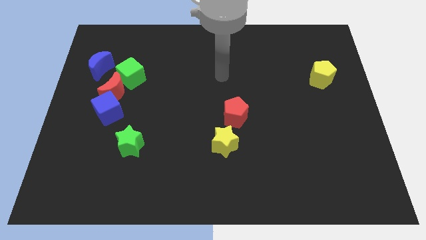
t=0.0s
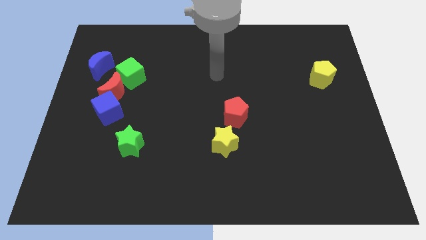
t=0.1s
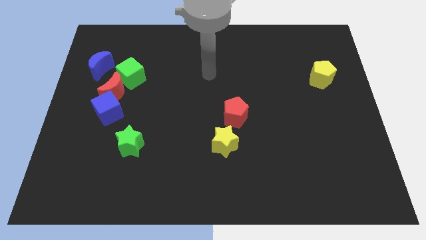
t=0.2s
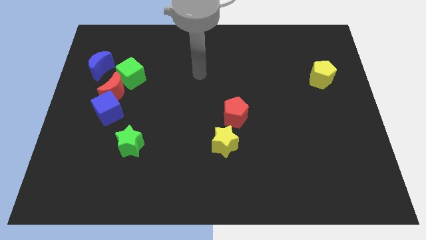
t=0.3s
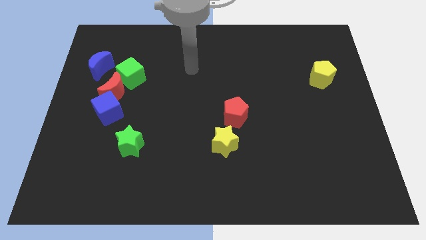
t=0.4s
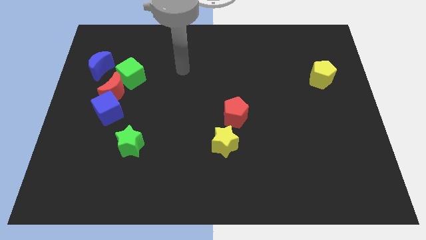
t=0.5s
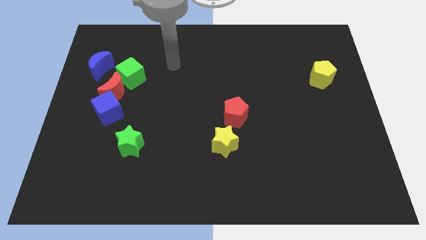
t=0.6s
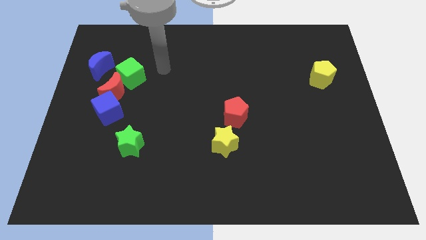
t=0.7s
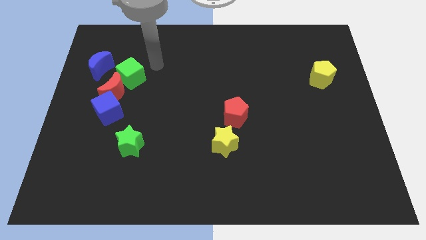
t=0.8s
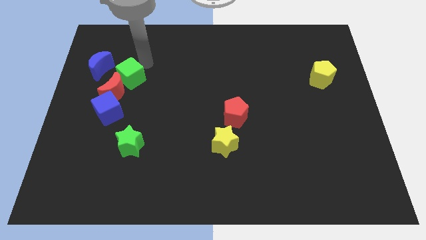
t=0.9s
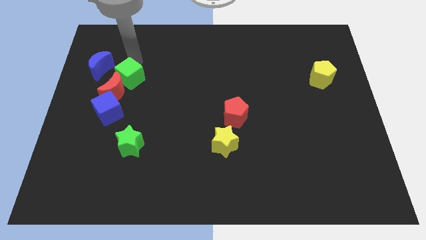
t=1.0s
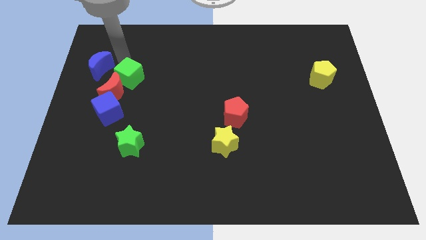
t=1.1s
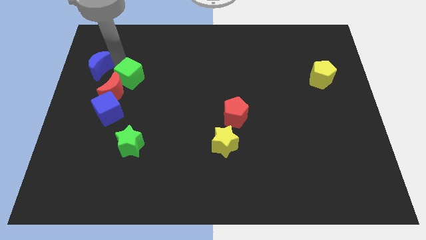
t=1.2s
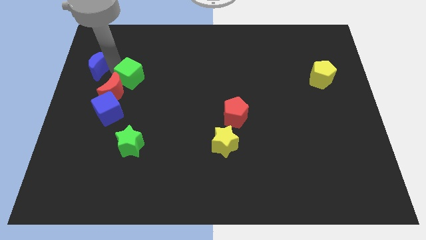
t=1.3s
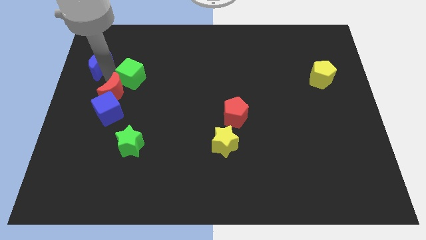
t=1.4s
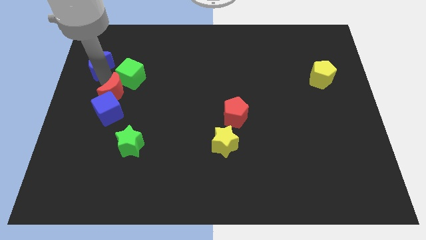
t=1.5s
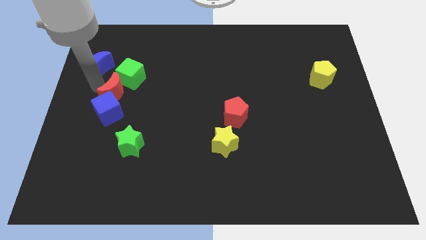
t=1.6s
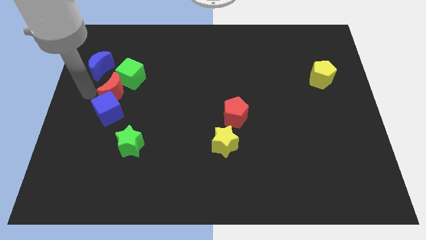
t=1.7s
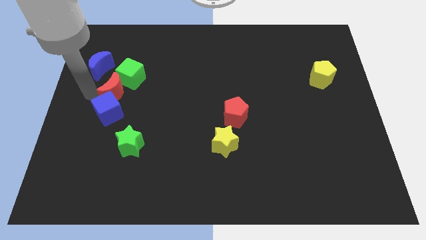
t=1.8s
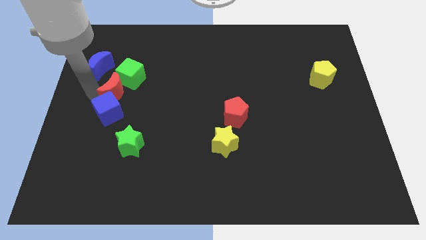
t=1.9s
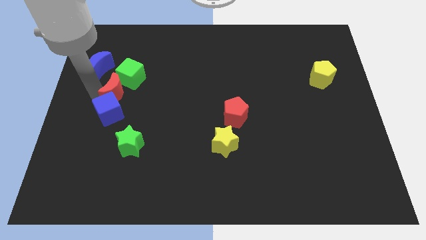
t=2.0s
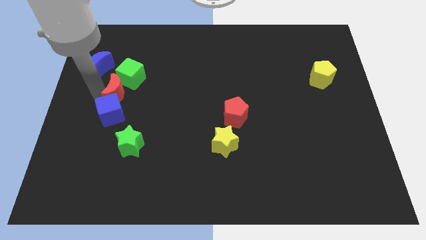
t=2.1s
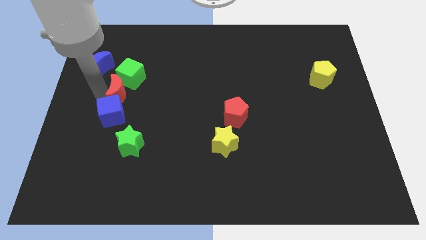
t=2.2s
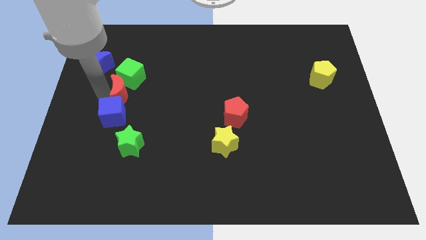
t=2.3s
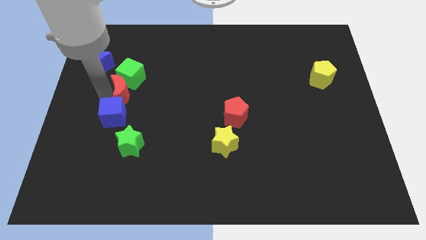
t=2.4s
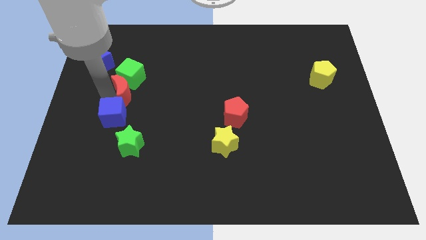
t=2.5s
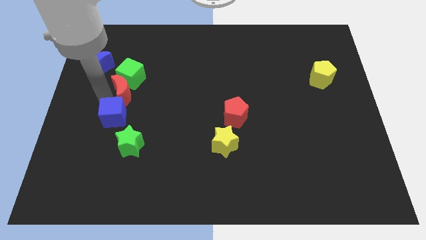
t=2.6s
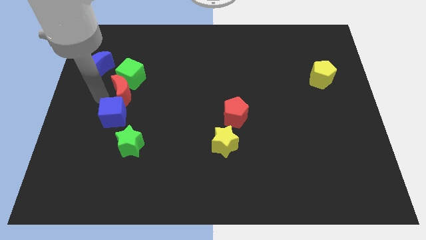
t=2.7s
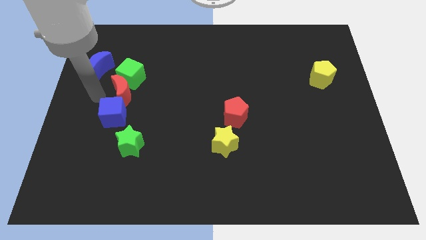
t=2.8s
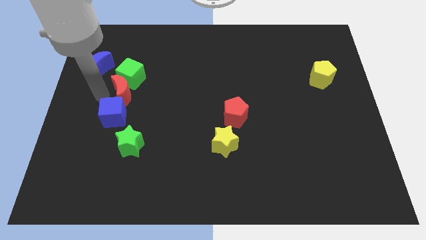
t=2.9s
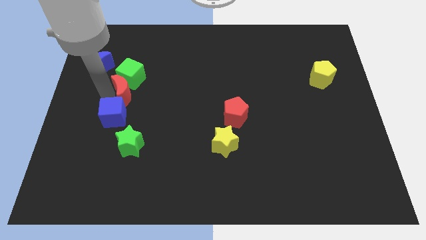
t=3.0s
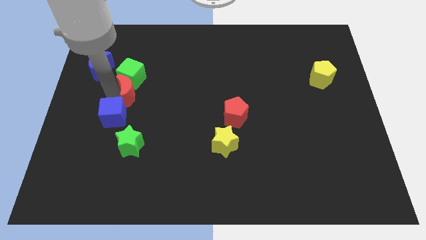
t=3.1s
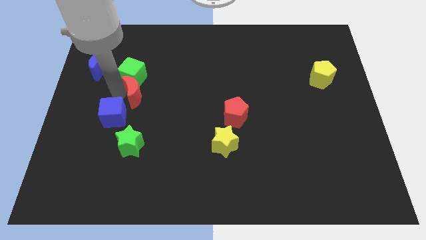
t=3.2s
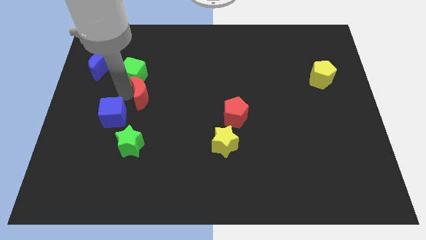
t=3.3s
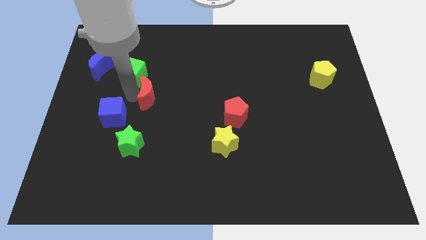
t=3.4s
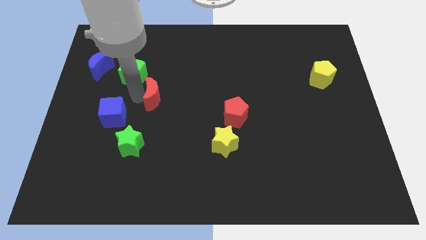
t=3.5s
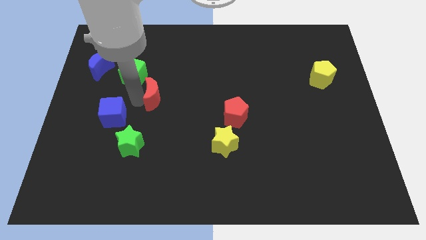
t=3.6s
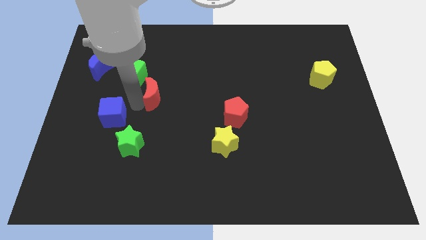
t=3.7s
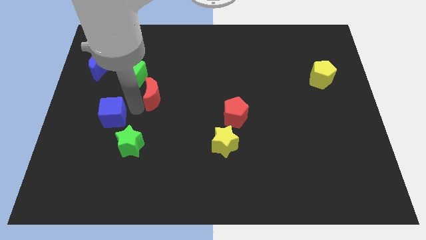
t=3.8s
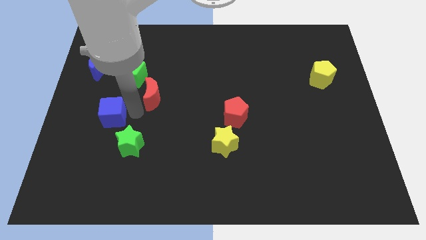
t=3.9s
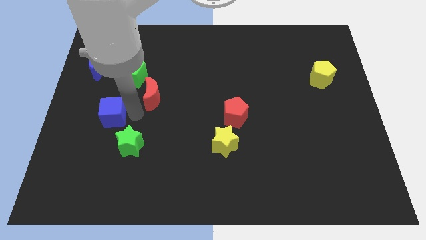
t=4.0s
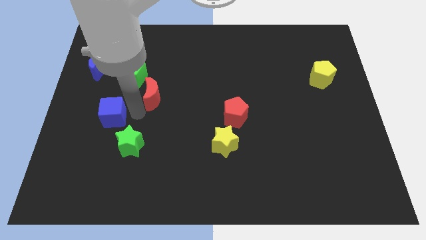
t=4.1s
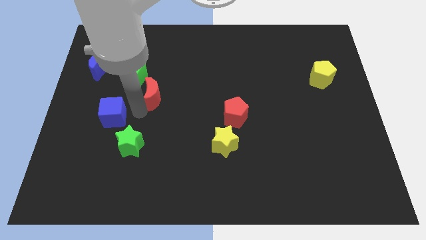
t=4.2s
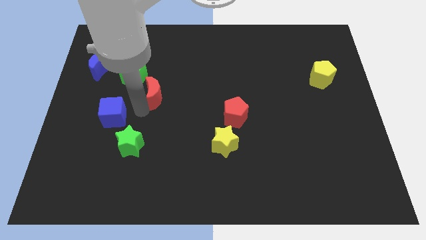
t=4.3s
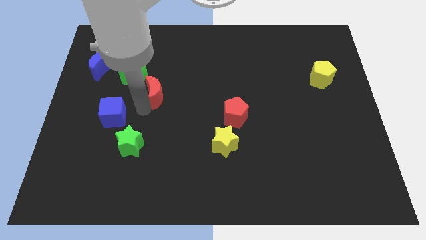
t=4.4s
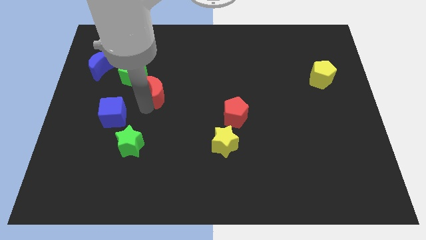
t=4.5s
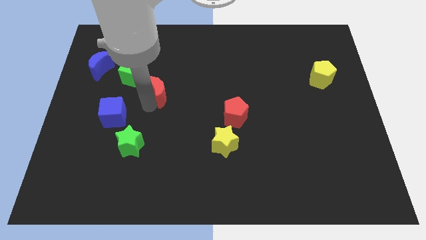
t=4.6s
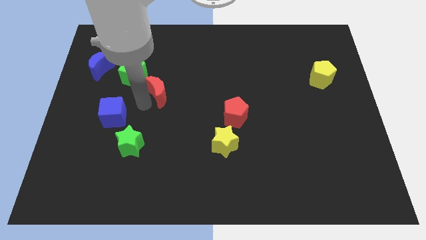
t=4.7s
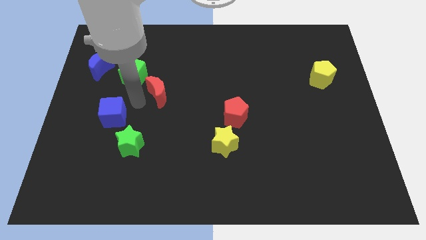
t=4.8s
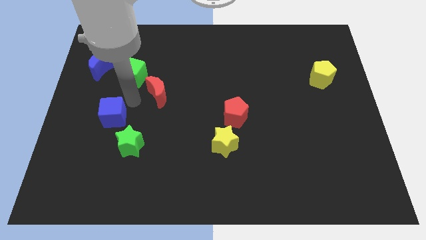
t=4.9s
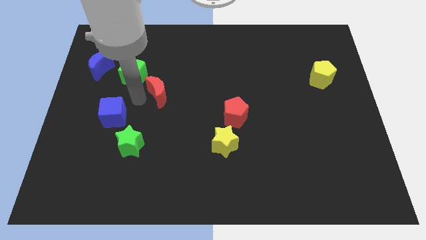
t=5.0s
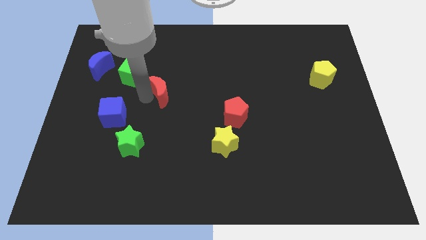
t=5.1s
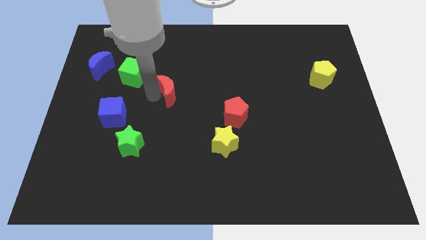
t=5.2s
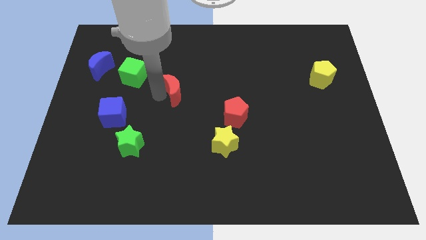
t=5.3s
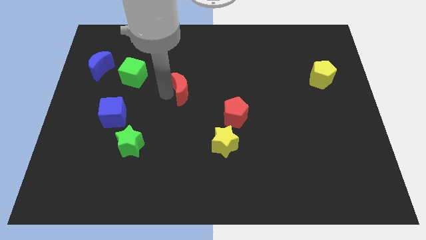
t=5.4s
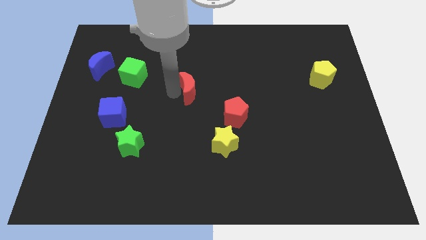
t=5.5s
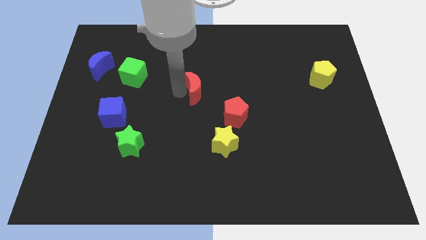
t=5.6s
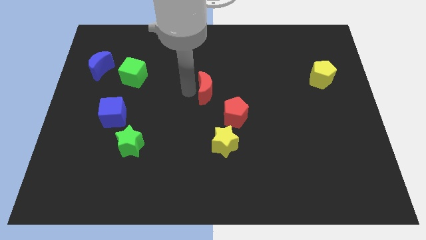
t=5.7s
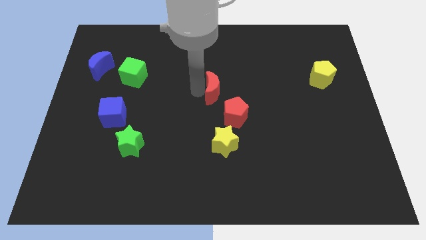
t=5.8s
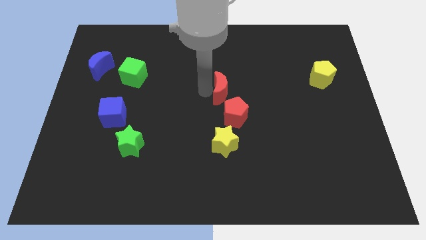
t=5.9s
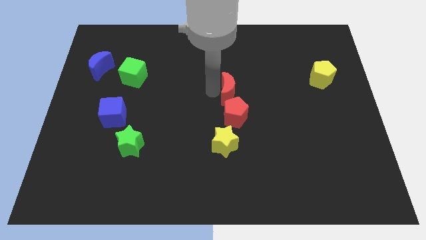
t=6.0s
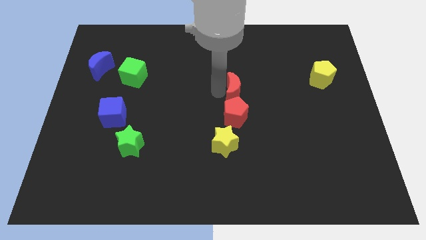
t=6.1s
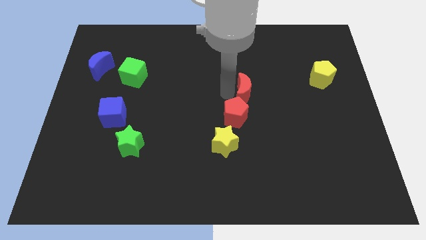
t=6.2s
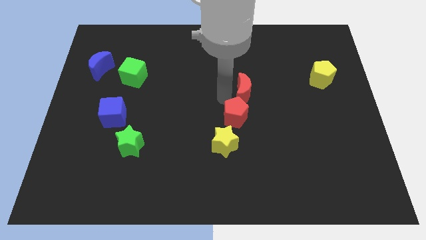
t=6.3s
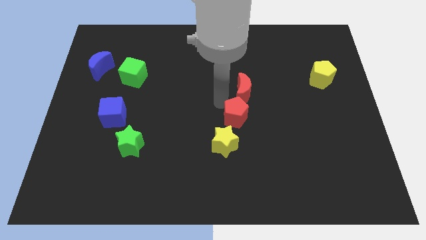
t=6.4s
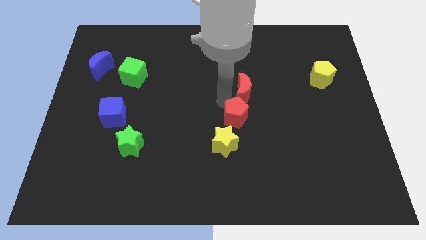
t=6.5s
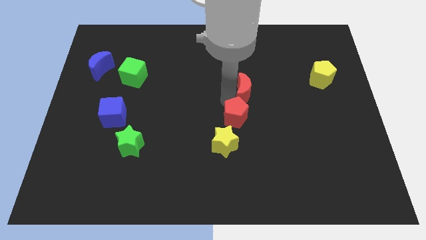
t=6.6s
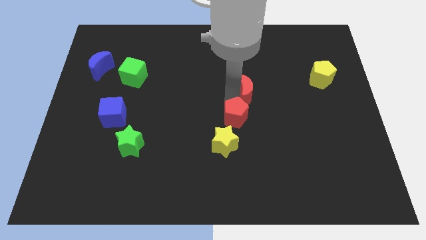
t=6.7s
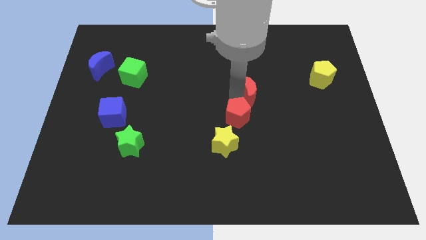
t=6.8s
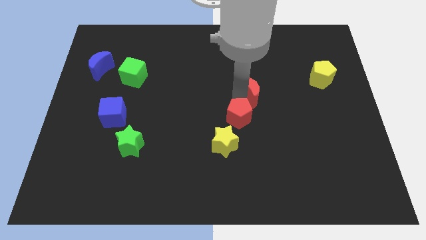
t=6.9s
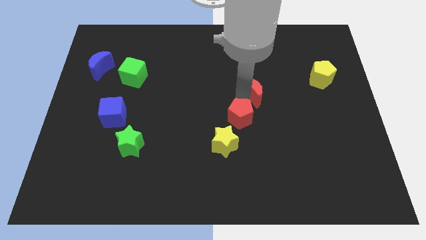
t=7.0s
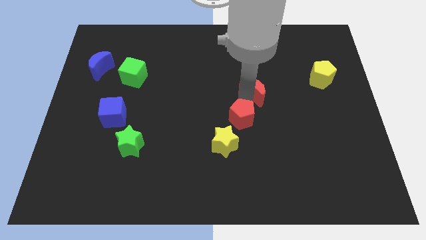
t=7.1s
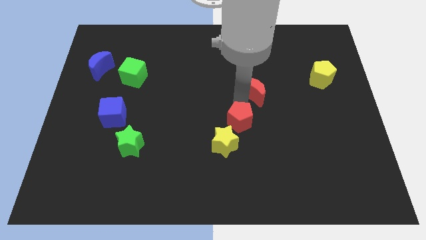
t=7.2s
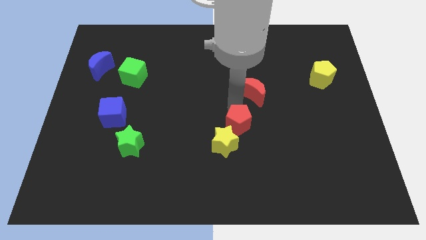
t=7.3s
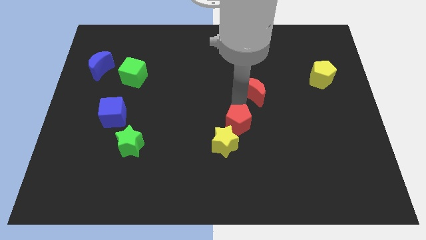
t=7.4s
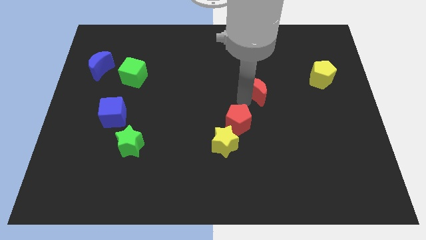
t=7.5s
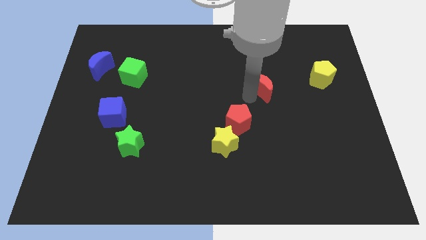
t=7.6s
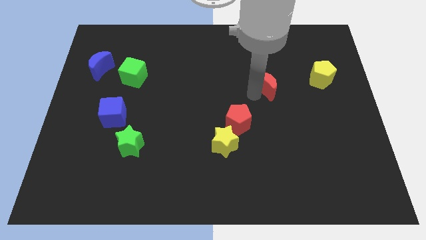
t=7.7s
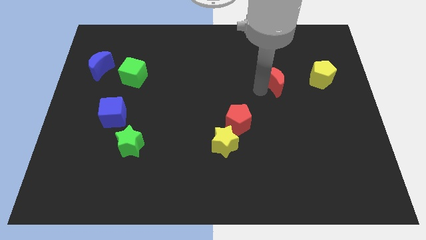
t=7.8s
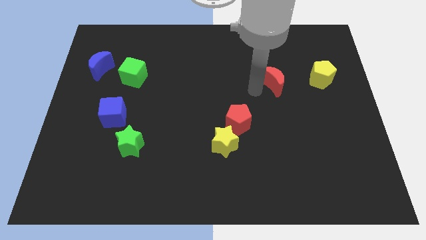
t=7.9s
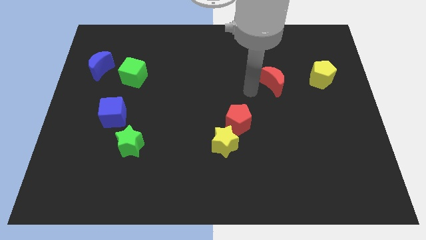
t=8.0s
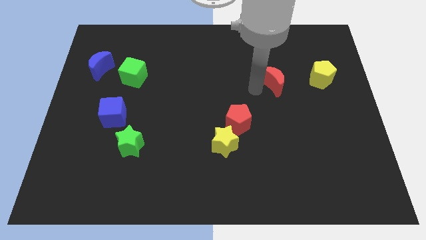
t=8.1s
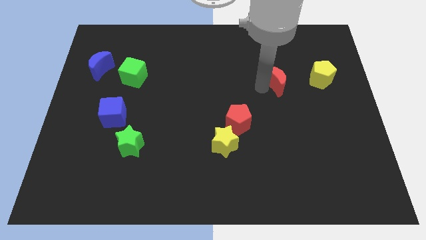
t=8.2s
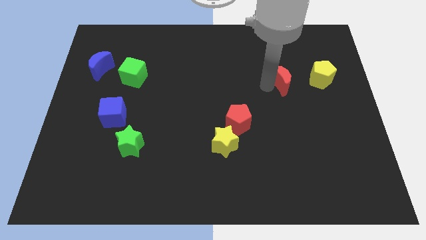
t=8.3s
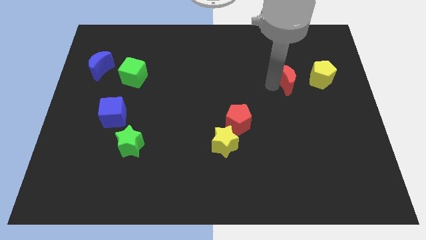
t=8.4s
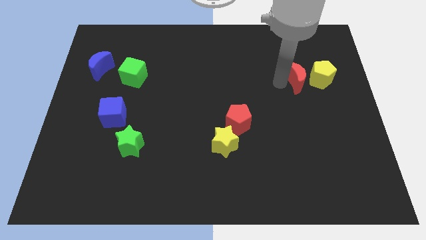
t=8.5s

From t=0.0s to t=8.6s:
move the red moon next to the yellow pentagon
